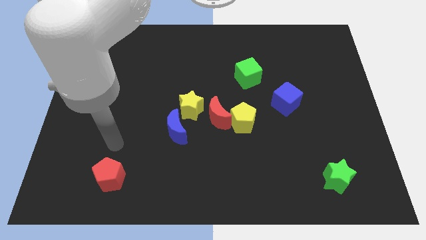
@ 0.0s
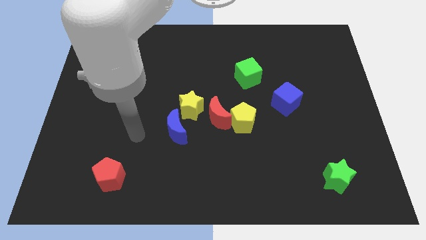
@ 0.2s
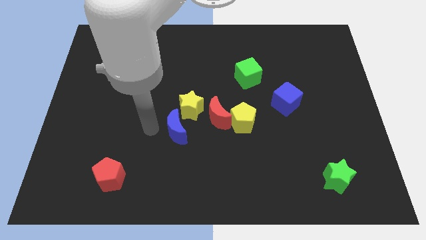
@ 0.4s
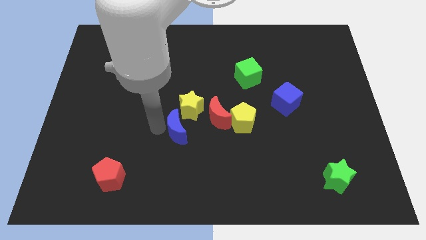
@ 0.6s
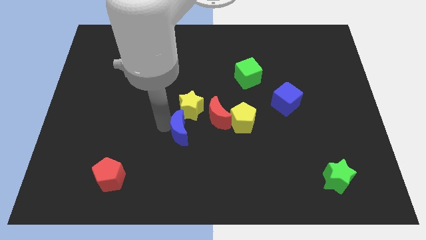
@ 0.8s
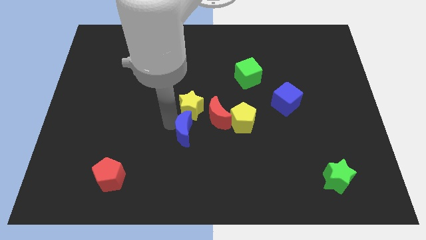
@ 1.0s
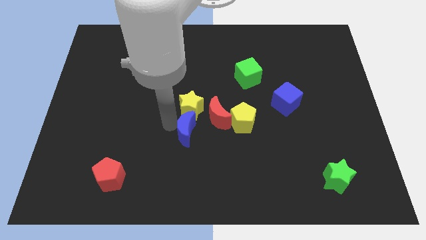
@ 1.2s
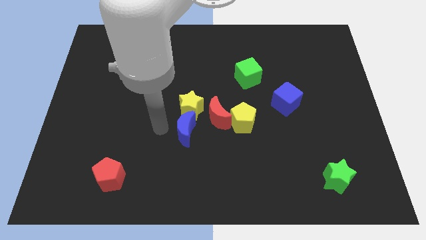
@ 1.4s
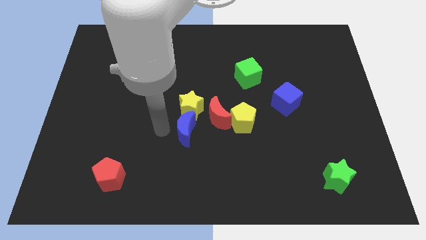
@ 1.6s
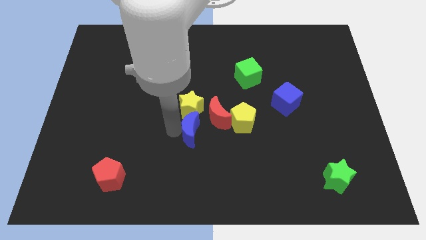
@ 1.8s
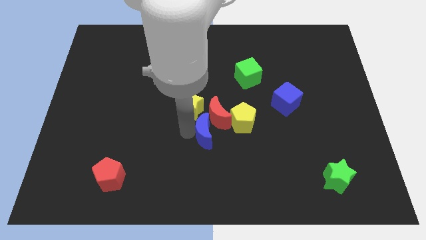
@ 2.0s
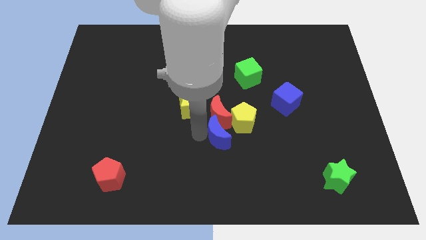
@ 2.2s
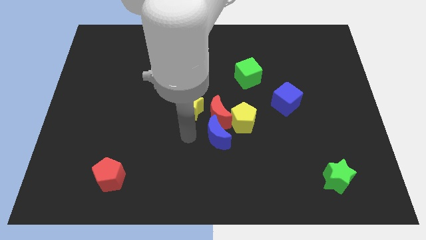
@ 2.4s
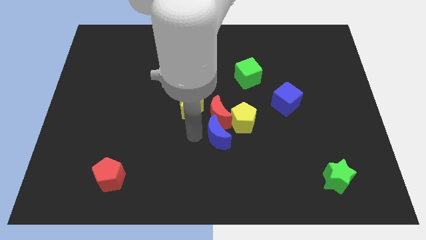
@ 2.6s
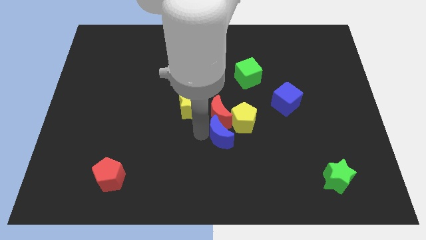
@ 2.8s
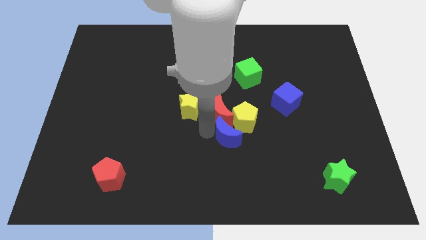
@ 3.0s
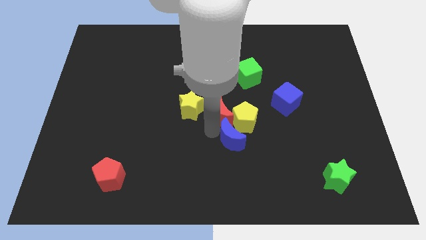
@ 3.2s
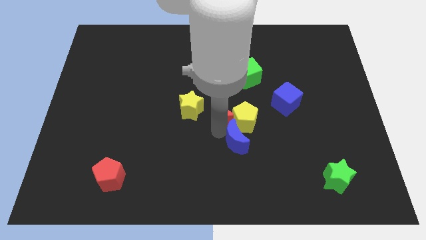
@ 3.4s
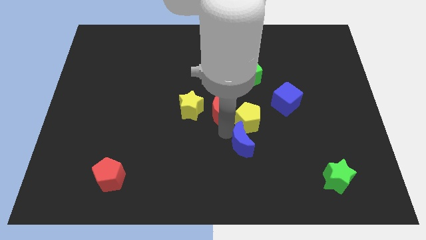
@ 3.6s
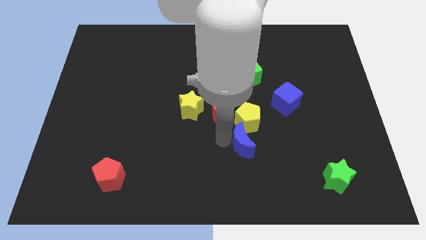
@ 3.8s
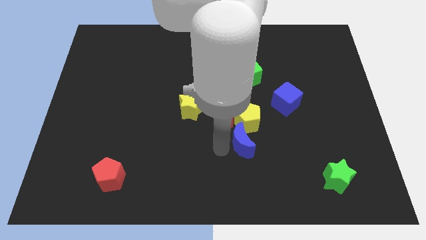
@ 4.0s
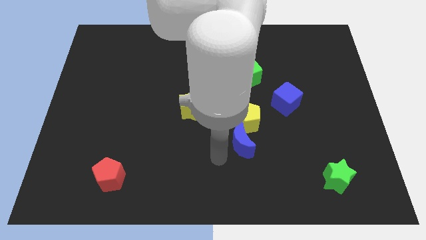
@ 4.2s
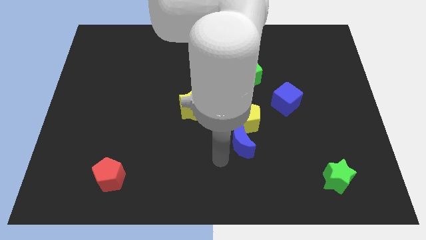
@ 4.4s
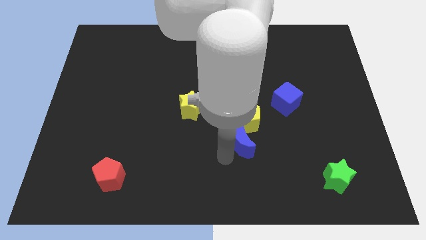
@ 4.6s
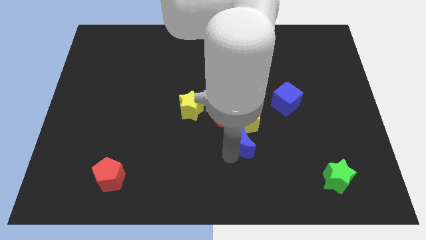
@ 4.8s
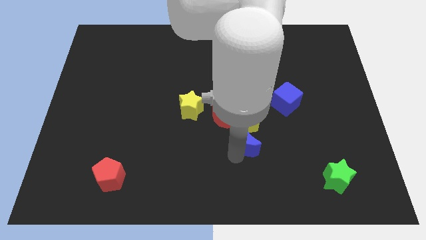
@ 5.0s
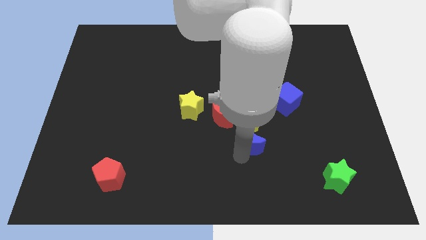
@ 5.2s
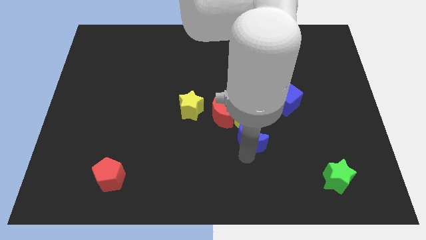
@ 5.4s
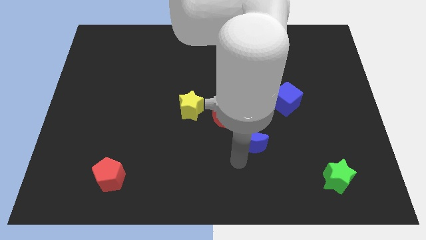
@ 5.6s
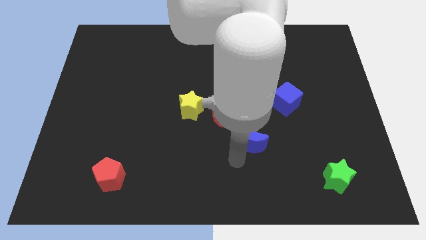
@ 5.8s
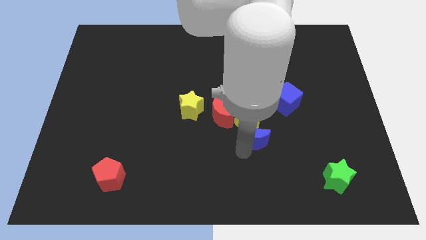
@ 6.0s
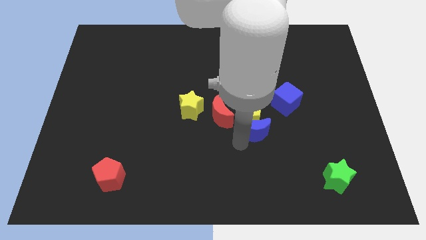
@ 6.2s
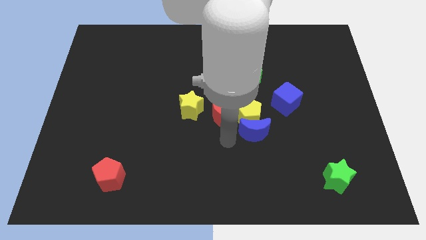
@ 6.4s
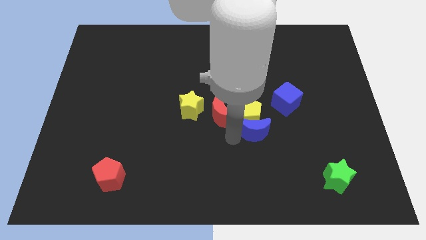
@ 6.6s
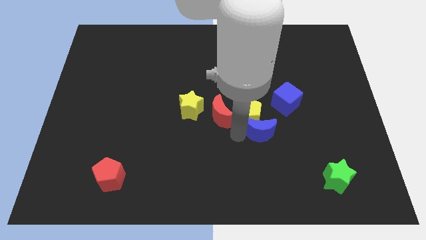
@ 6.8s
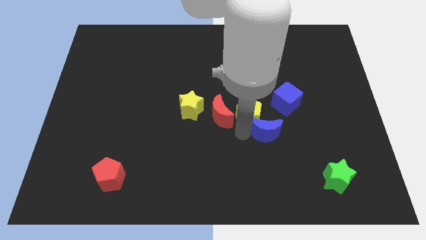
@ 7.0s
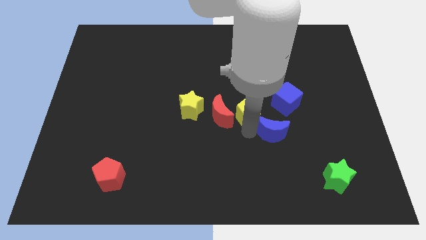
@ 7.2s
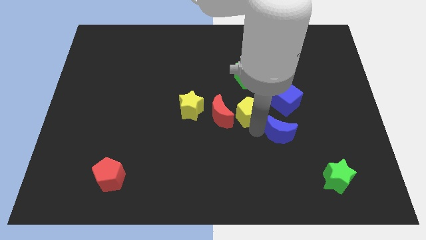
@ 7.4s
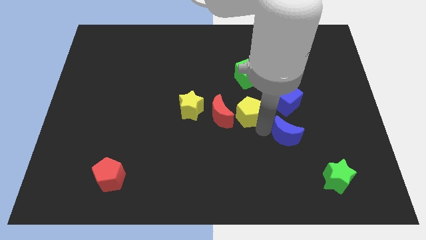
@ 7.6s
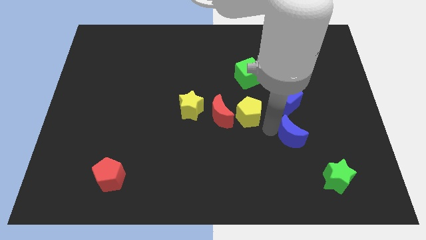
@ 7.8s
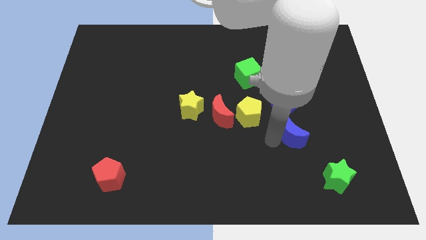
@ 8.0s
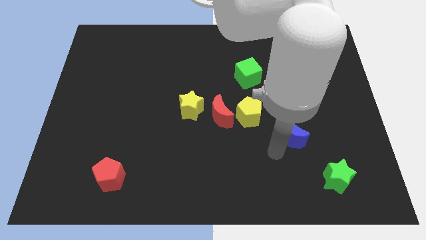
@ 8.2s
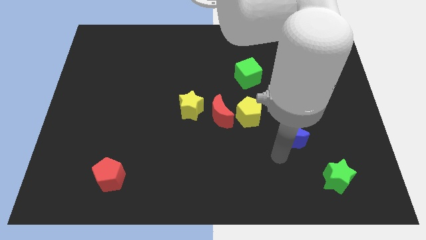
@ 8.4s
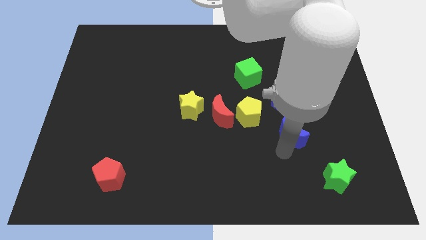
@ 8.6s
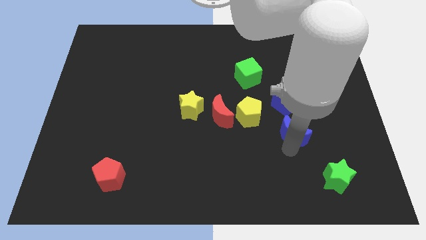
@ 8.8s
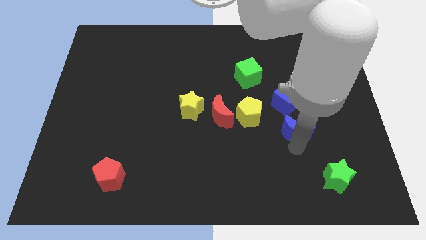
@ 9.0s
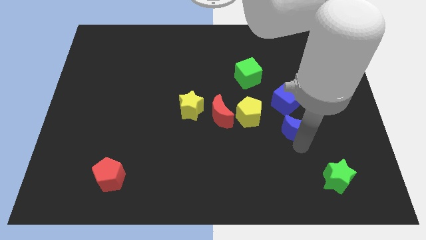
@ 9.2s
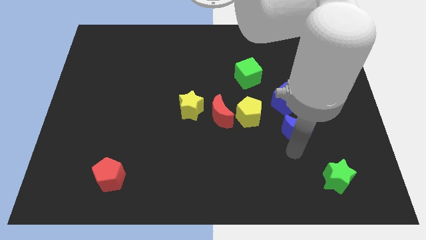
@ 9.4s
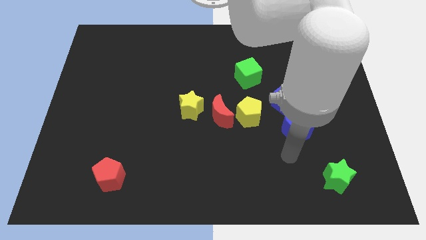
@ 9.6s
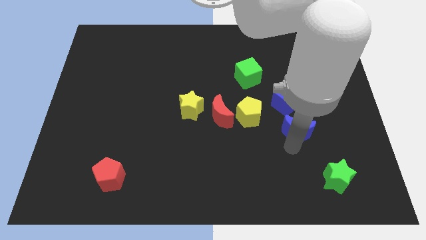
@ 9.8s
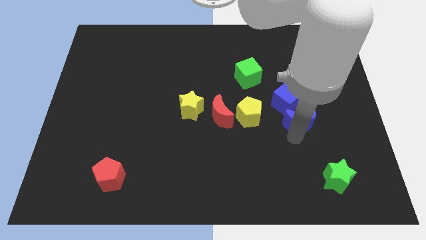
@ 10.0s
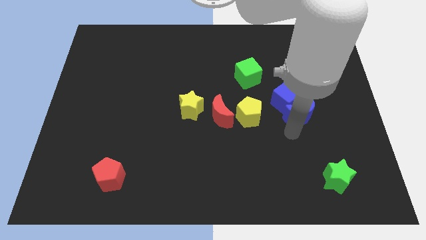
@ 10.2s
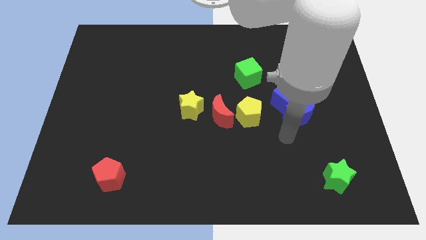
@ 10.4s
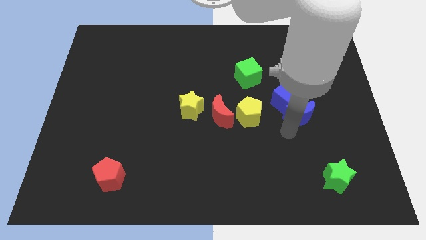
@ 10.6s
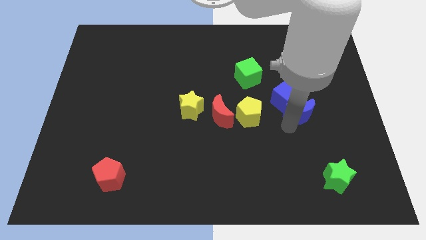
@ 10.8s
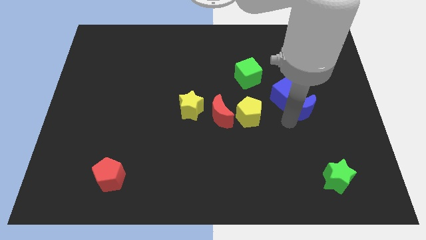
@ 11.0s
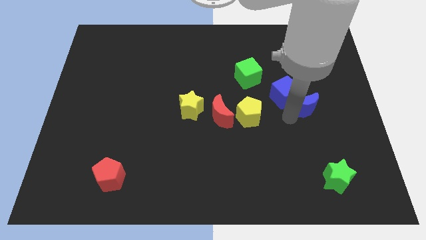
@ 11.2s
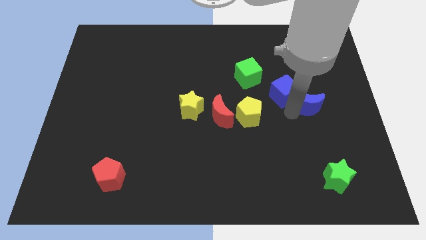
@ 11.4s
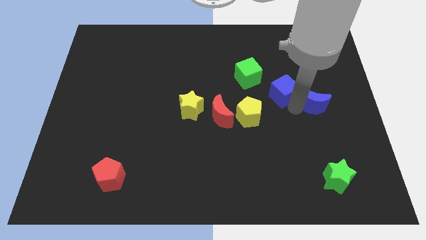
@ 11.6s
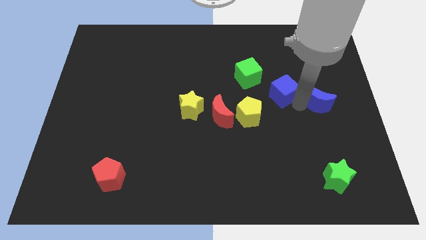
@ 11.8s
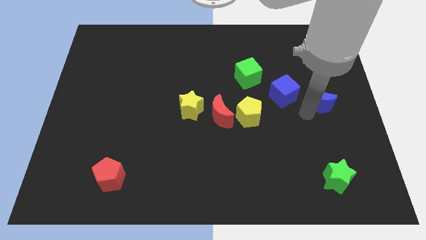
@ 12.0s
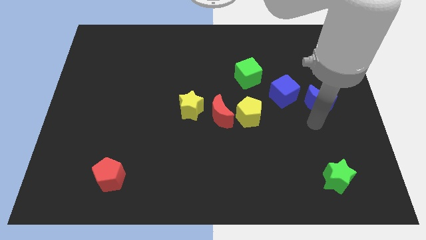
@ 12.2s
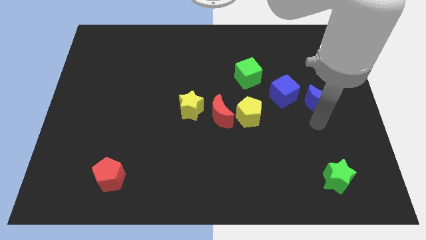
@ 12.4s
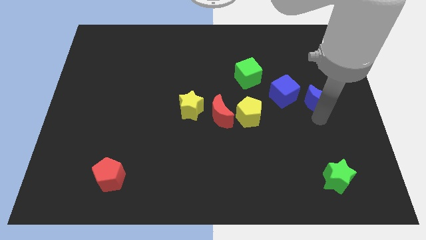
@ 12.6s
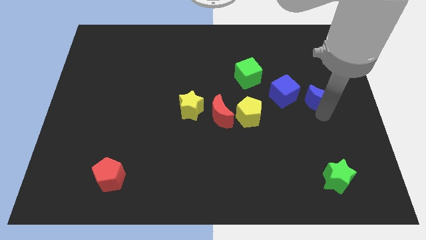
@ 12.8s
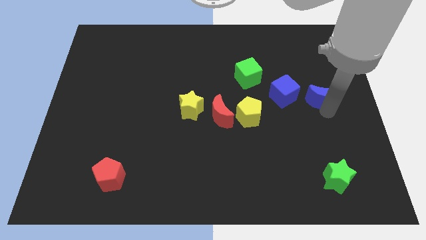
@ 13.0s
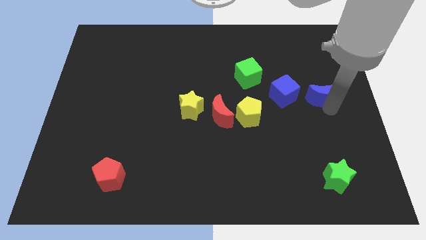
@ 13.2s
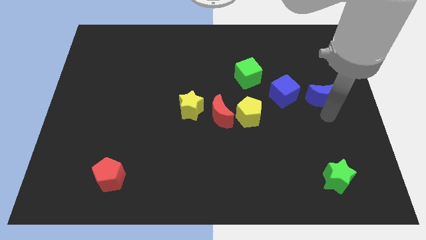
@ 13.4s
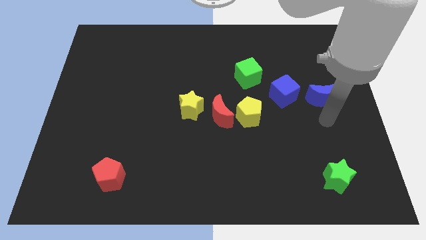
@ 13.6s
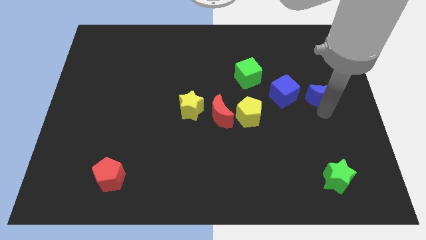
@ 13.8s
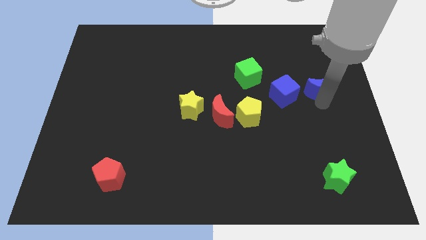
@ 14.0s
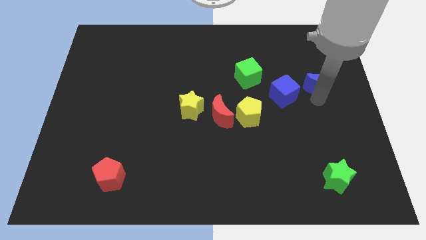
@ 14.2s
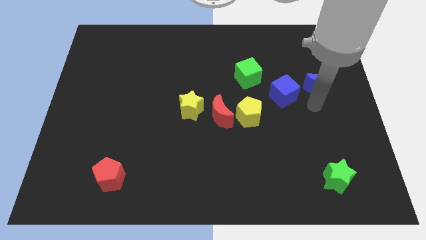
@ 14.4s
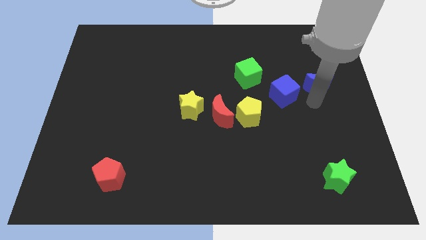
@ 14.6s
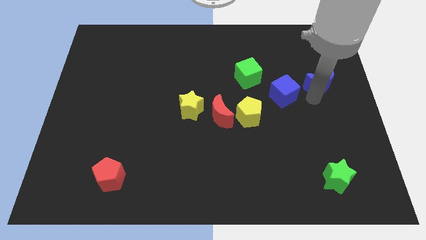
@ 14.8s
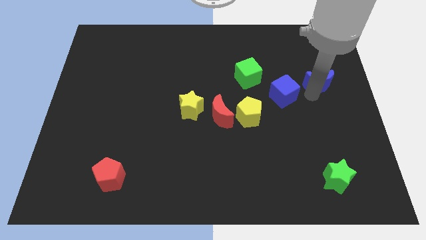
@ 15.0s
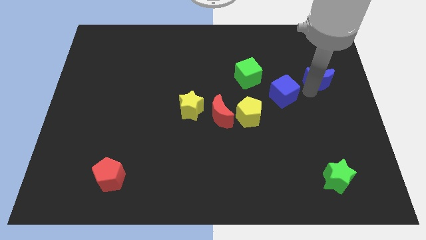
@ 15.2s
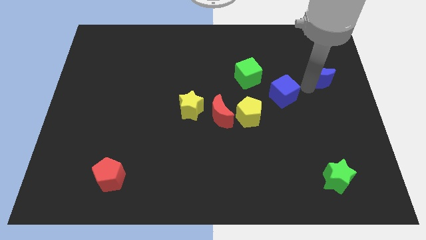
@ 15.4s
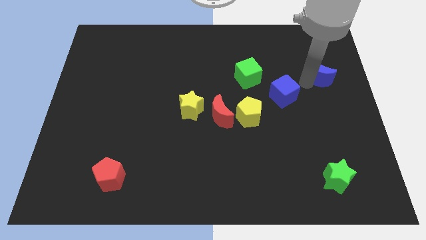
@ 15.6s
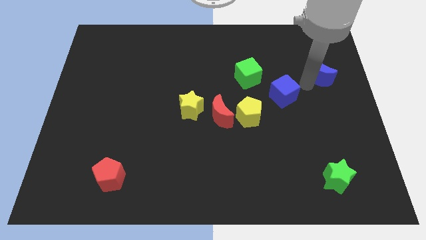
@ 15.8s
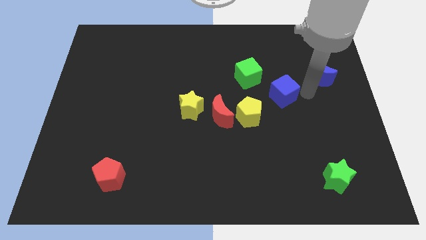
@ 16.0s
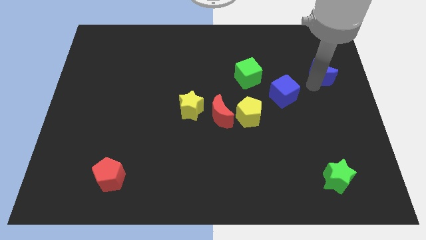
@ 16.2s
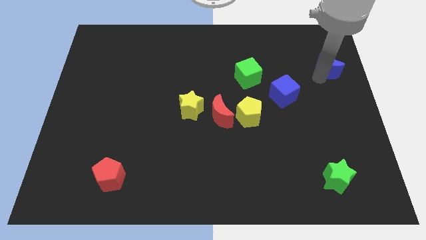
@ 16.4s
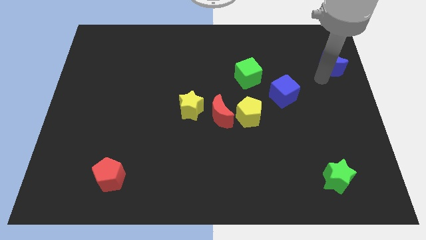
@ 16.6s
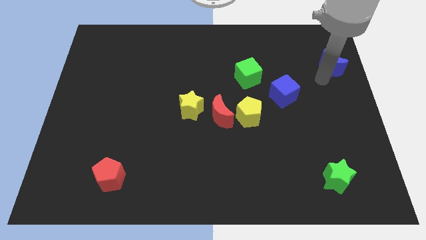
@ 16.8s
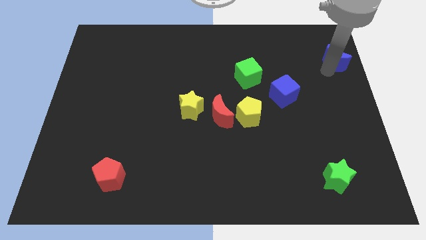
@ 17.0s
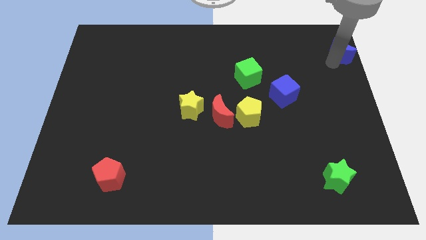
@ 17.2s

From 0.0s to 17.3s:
slide the blue moon to the top right of the board
